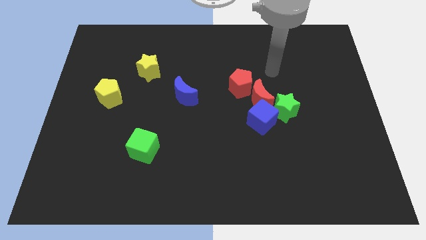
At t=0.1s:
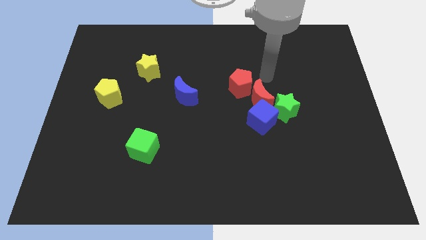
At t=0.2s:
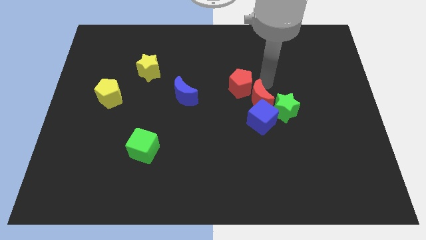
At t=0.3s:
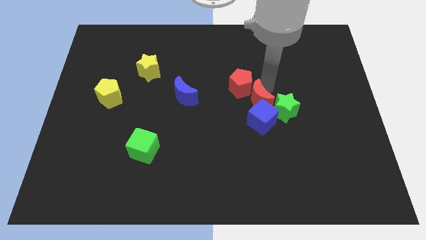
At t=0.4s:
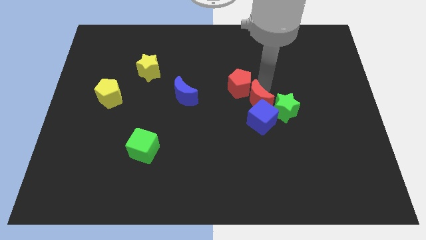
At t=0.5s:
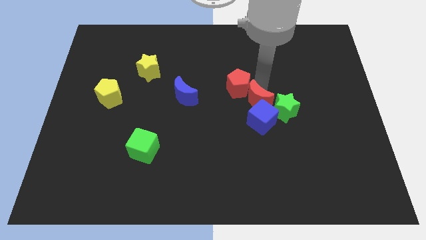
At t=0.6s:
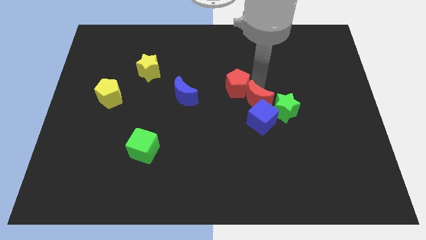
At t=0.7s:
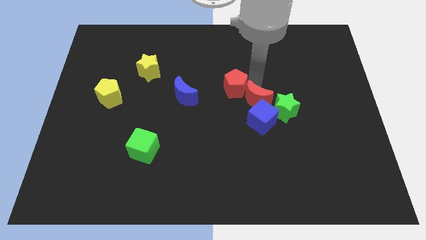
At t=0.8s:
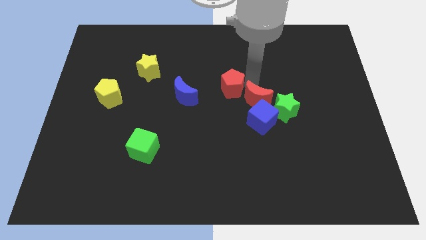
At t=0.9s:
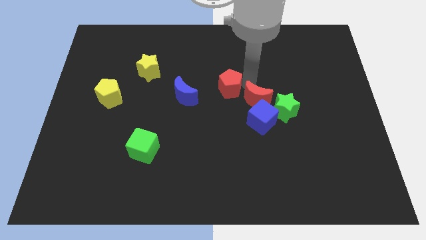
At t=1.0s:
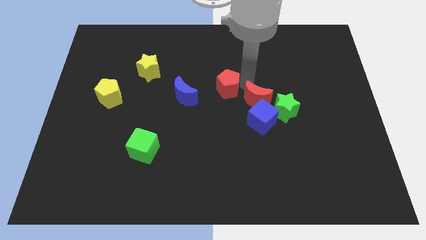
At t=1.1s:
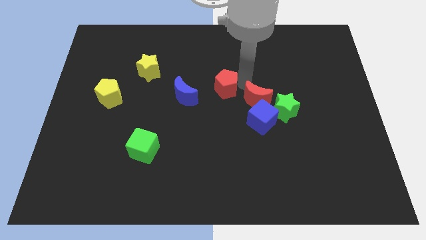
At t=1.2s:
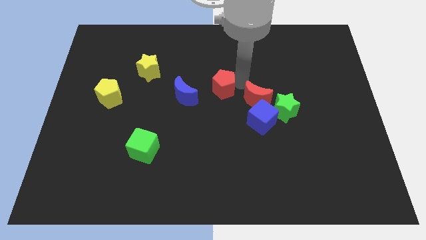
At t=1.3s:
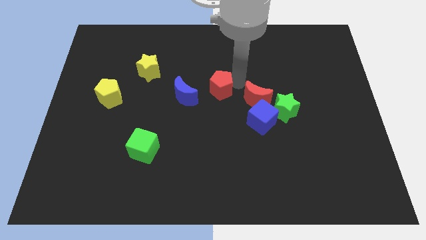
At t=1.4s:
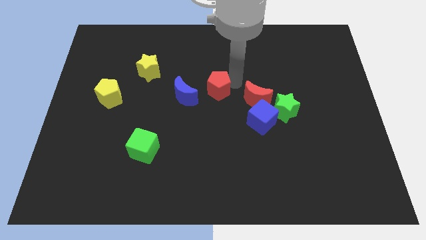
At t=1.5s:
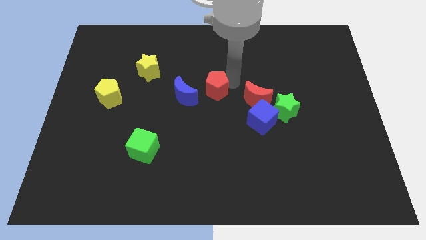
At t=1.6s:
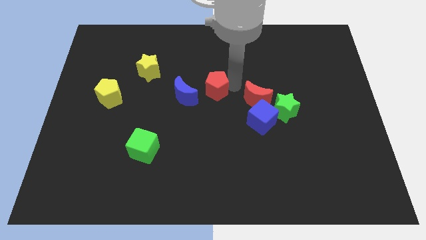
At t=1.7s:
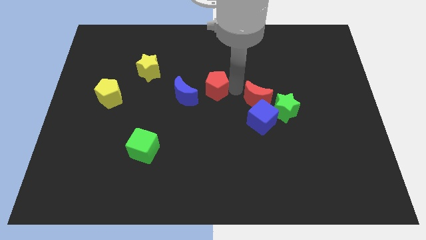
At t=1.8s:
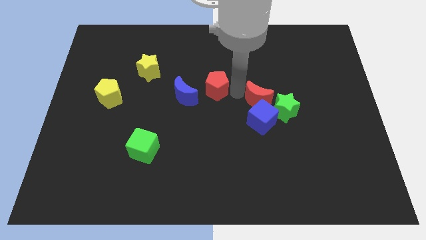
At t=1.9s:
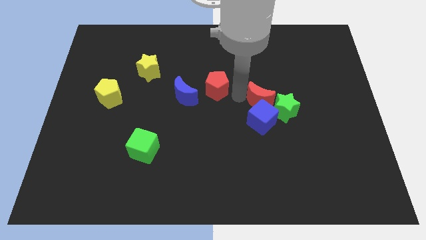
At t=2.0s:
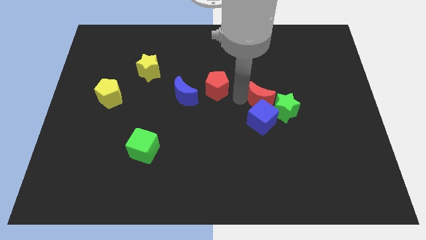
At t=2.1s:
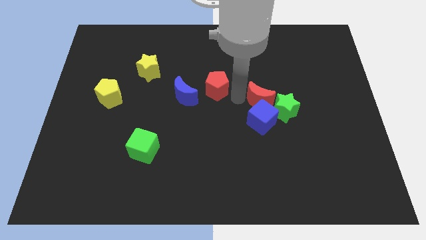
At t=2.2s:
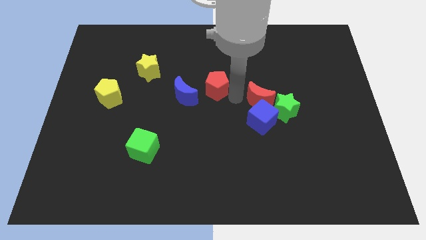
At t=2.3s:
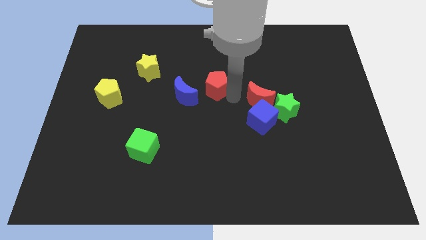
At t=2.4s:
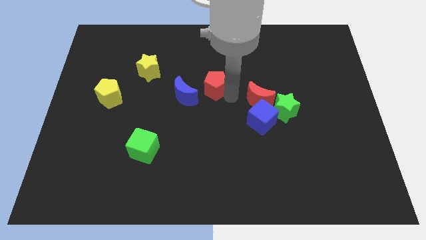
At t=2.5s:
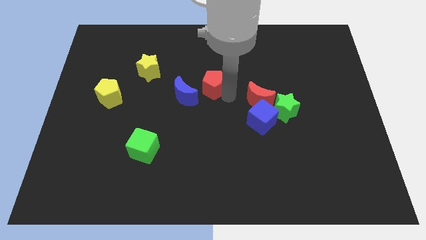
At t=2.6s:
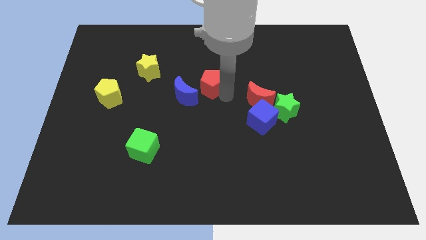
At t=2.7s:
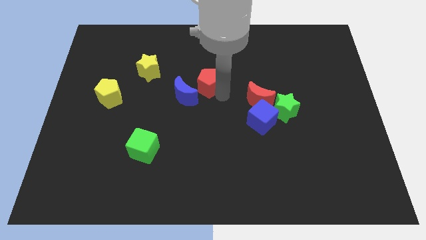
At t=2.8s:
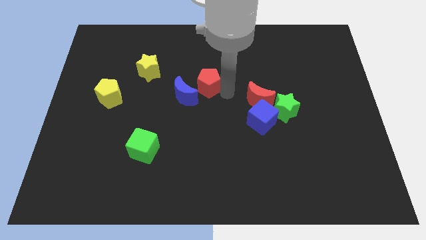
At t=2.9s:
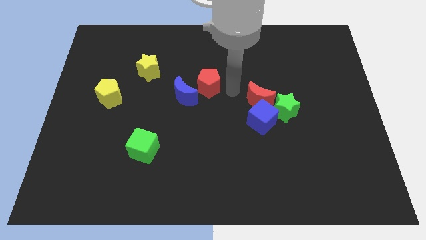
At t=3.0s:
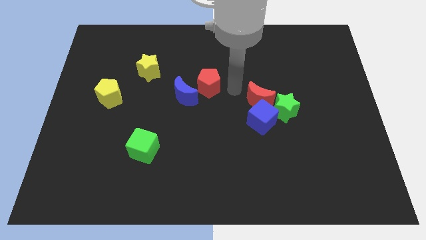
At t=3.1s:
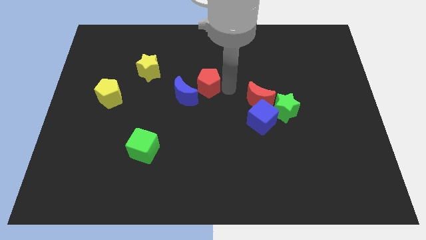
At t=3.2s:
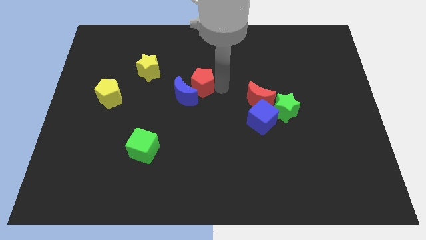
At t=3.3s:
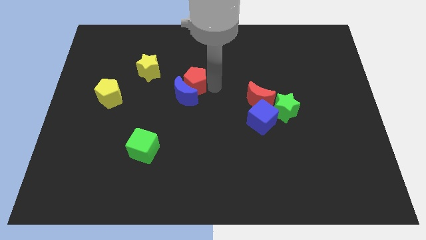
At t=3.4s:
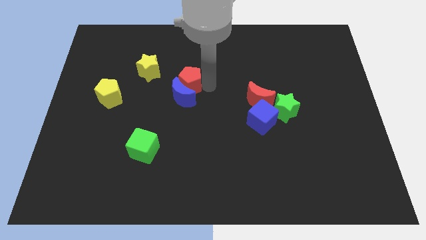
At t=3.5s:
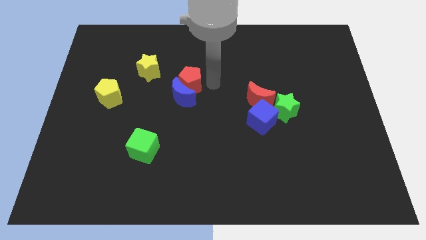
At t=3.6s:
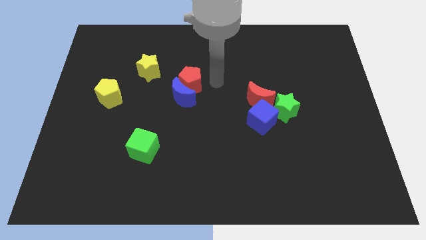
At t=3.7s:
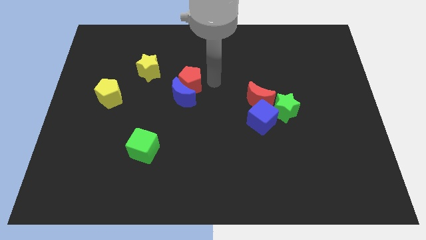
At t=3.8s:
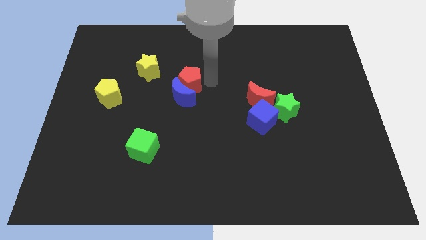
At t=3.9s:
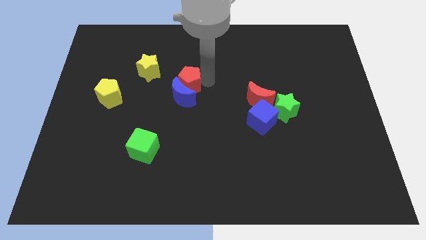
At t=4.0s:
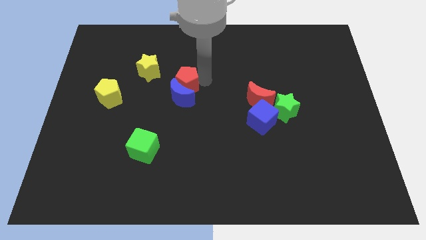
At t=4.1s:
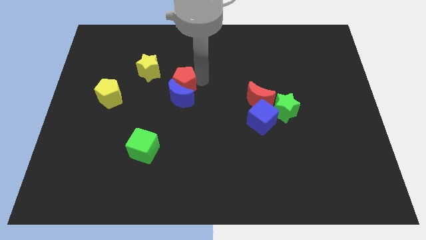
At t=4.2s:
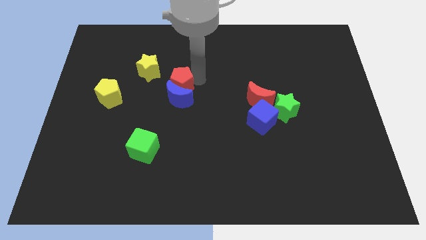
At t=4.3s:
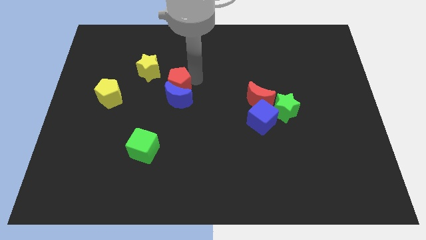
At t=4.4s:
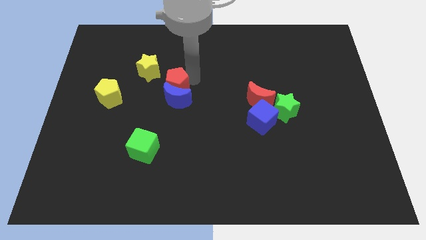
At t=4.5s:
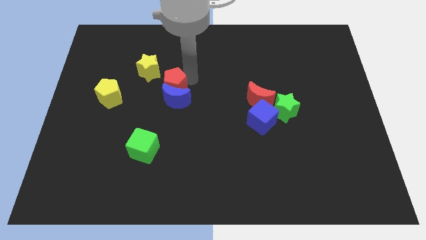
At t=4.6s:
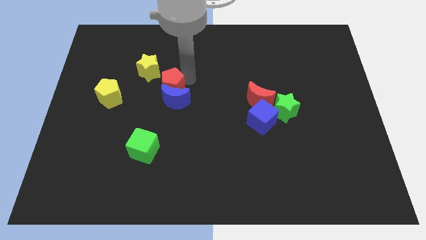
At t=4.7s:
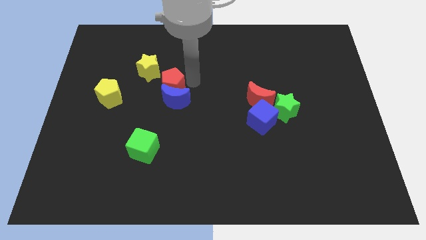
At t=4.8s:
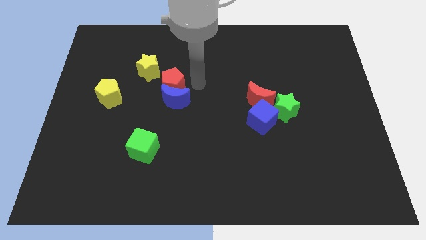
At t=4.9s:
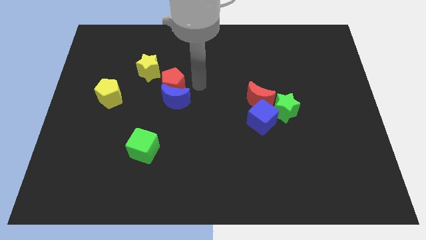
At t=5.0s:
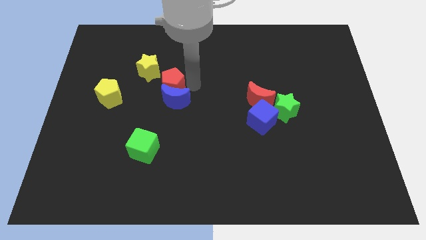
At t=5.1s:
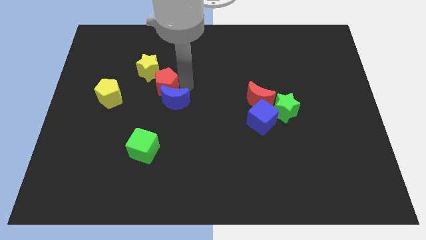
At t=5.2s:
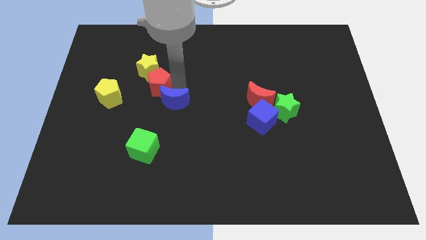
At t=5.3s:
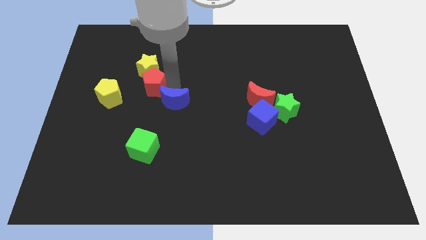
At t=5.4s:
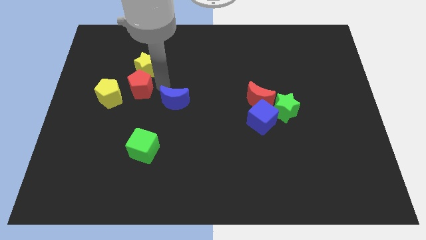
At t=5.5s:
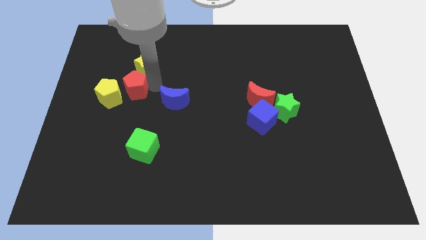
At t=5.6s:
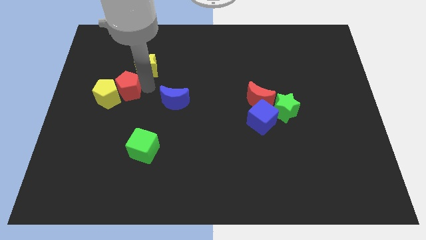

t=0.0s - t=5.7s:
slide the red pentagon to the yellow pentagon

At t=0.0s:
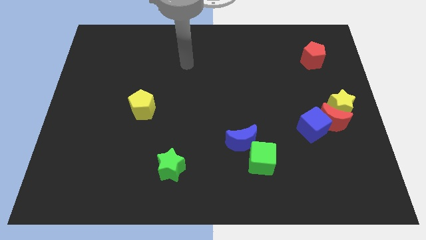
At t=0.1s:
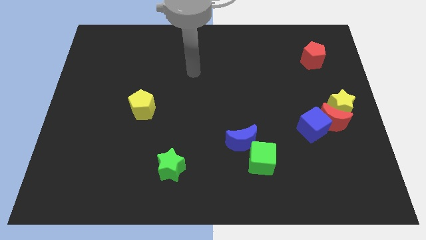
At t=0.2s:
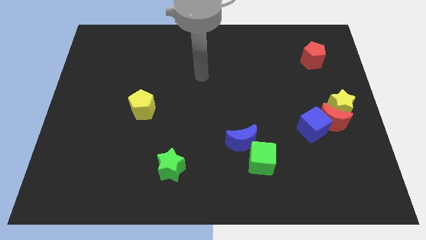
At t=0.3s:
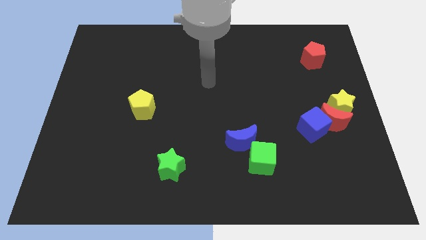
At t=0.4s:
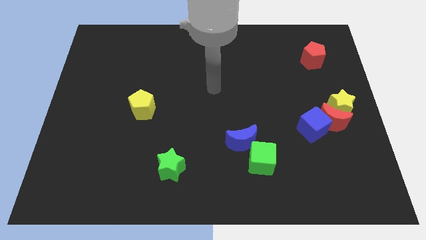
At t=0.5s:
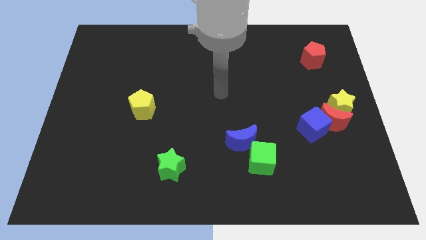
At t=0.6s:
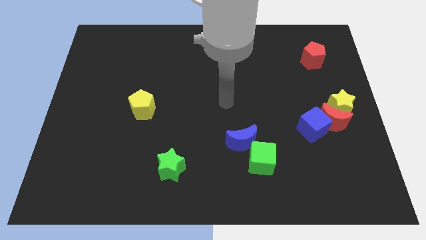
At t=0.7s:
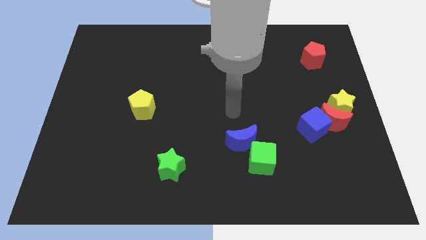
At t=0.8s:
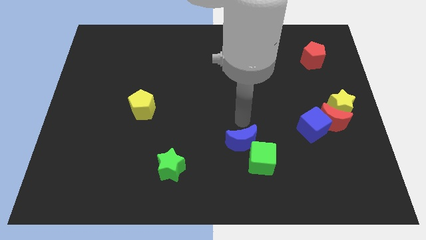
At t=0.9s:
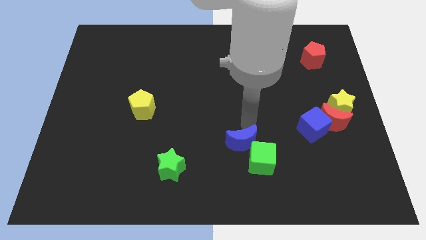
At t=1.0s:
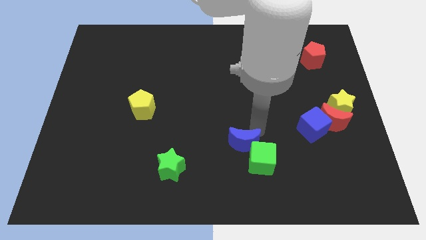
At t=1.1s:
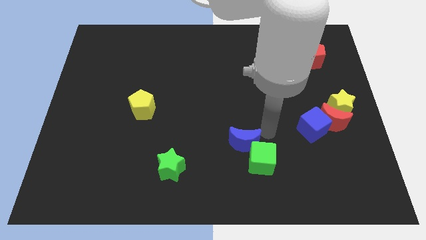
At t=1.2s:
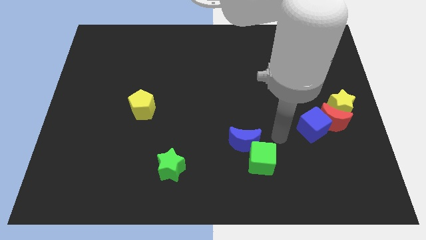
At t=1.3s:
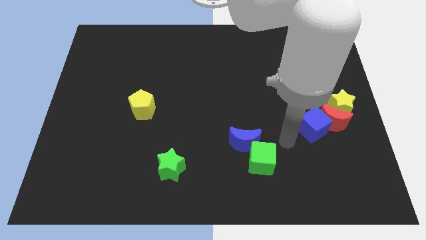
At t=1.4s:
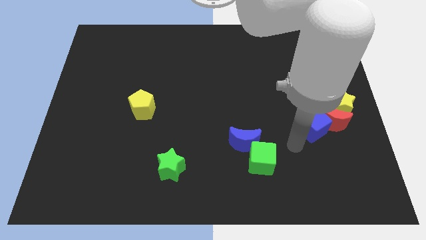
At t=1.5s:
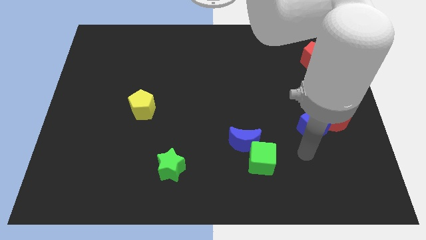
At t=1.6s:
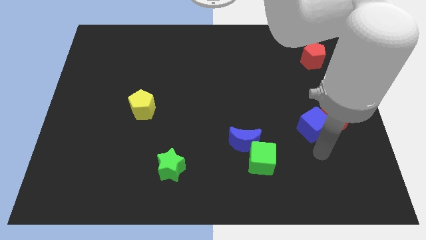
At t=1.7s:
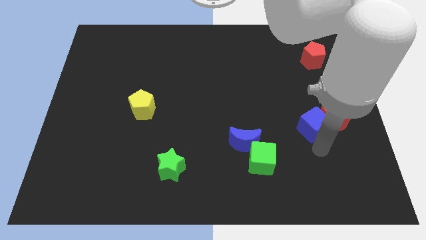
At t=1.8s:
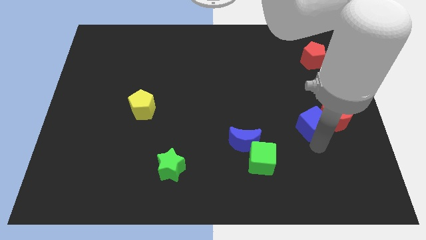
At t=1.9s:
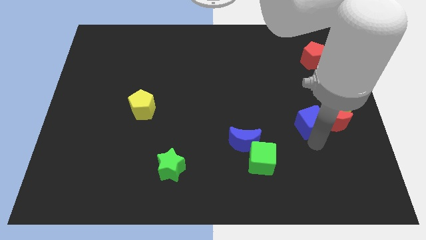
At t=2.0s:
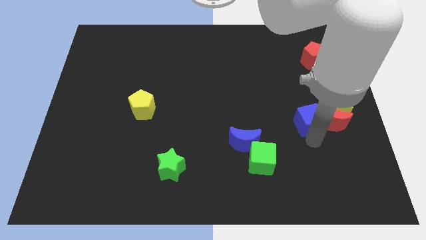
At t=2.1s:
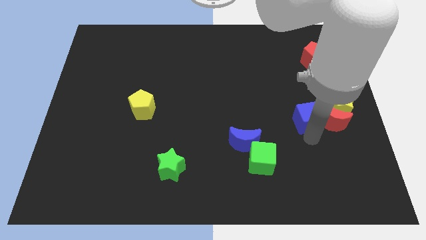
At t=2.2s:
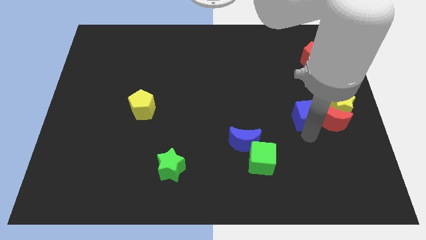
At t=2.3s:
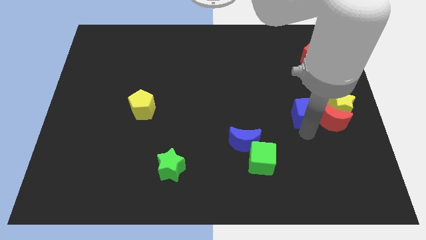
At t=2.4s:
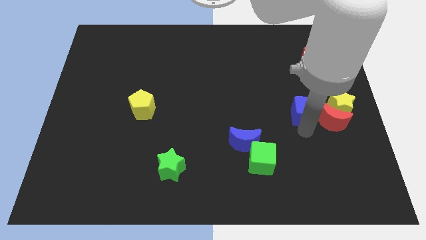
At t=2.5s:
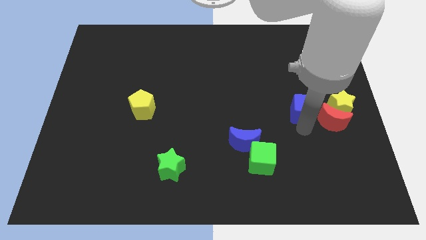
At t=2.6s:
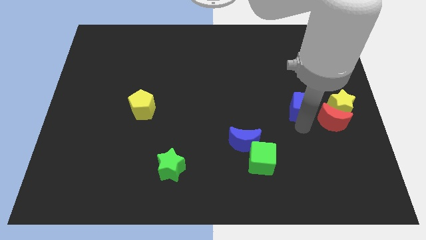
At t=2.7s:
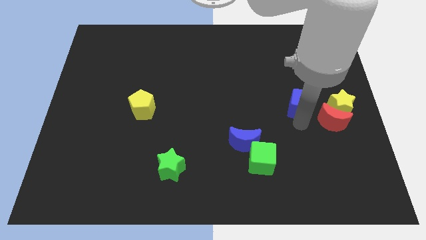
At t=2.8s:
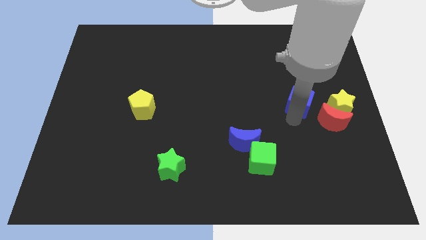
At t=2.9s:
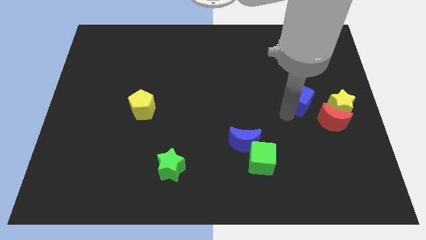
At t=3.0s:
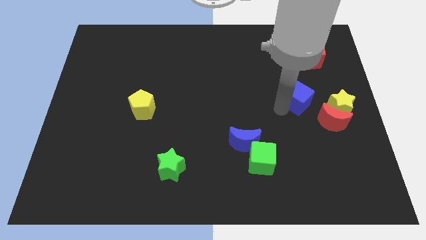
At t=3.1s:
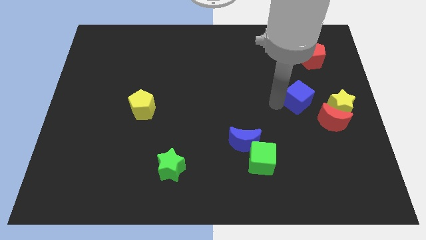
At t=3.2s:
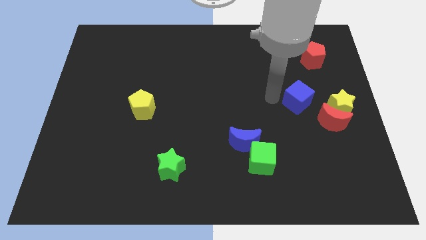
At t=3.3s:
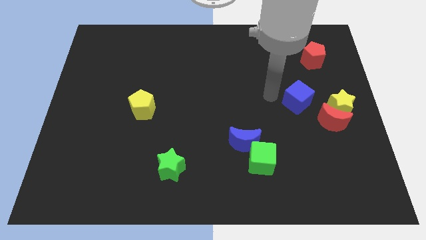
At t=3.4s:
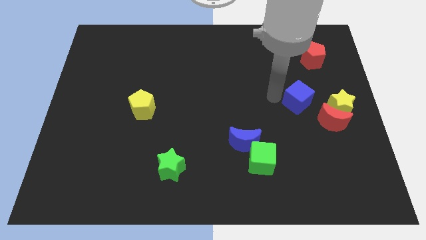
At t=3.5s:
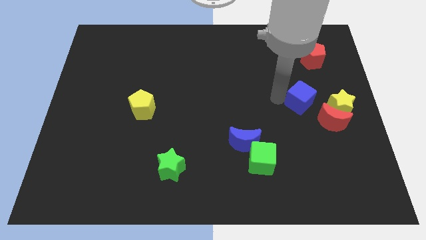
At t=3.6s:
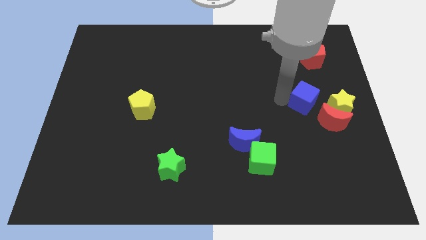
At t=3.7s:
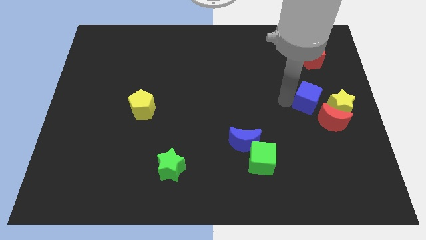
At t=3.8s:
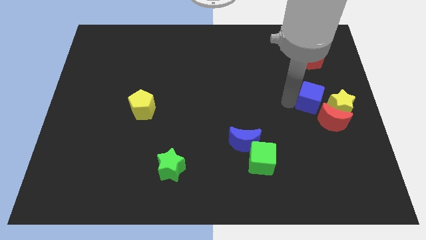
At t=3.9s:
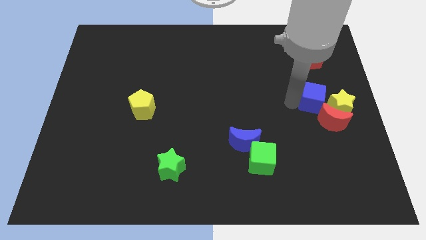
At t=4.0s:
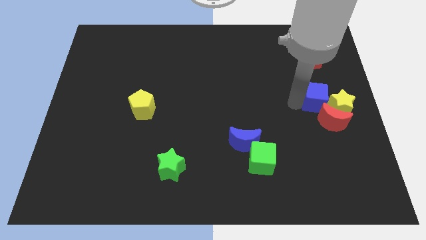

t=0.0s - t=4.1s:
slide the blue cube towards the yellow star
